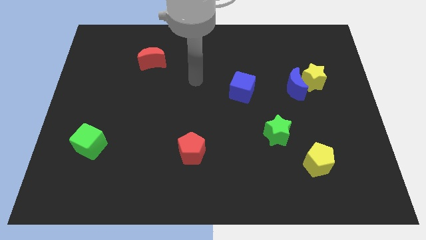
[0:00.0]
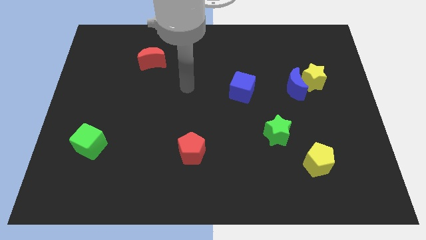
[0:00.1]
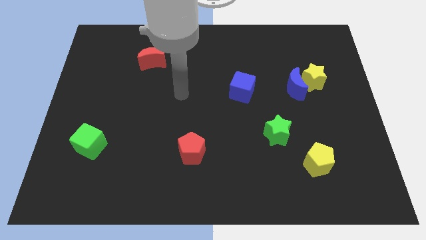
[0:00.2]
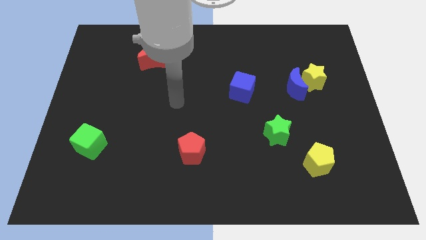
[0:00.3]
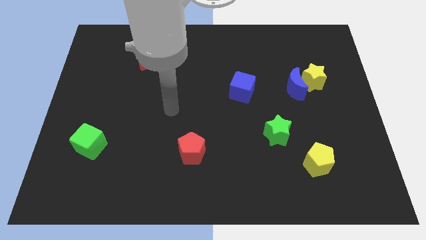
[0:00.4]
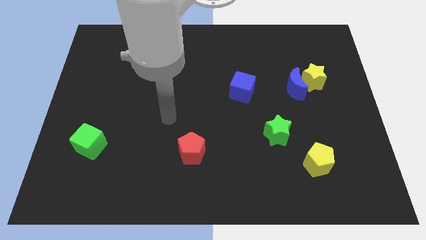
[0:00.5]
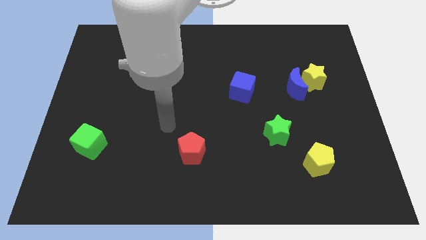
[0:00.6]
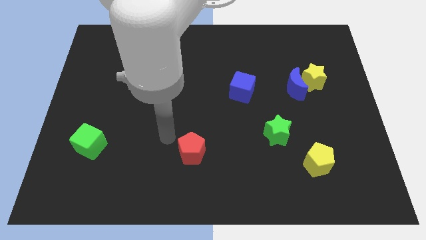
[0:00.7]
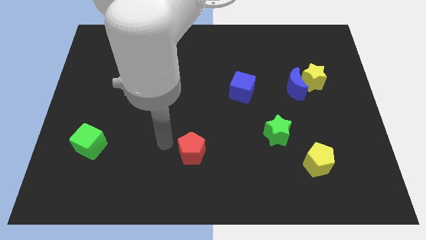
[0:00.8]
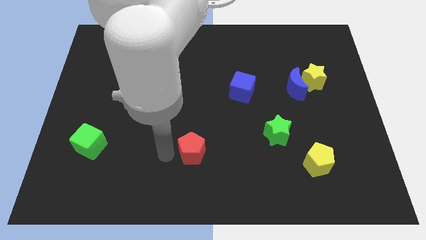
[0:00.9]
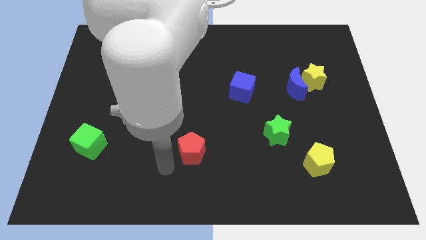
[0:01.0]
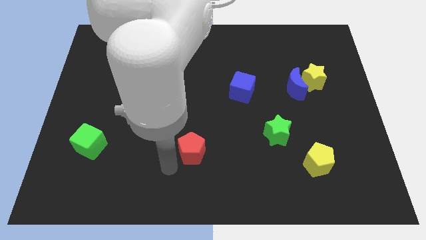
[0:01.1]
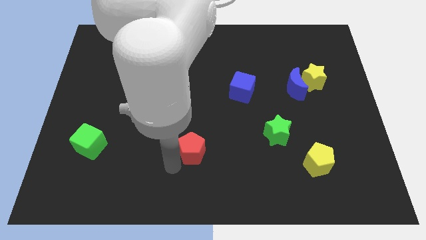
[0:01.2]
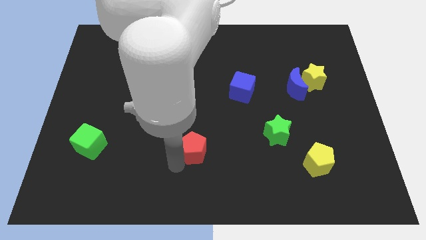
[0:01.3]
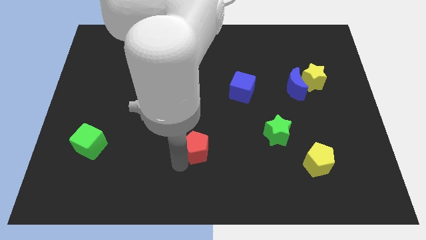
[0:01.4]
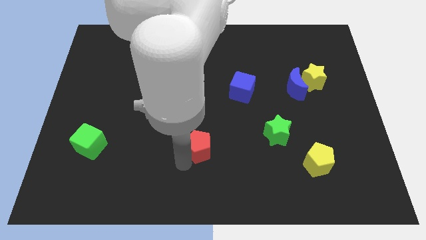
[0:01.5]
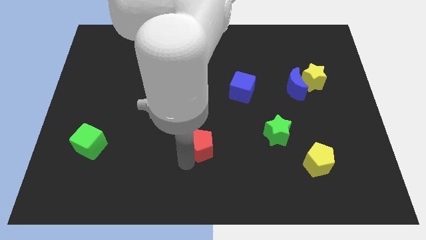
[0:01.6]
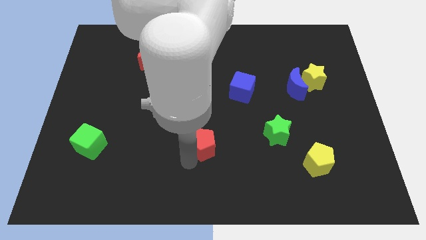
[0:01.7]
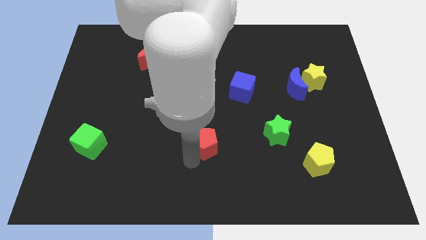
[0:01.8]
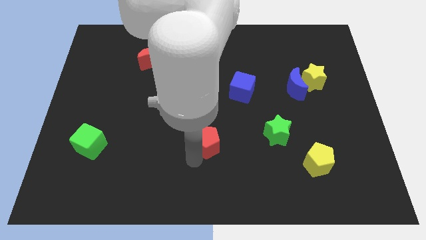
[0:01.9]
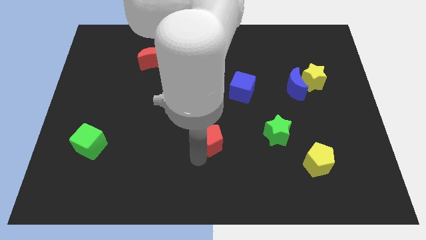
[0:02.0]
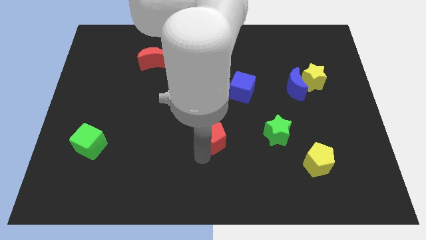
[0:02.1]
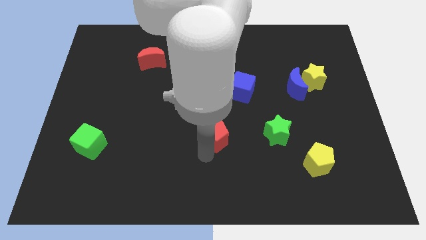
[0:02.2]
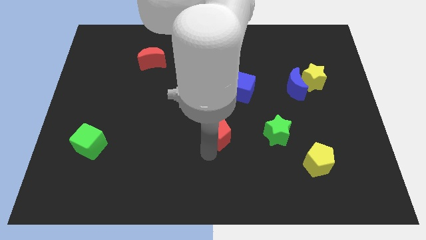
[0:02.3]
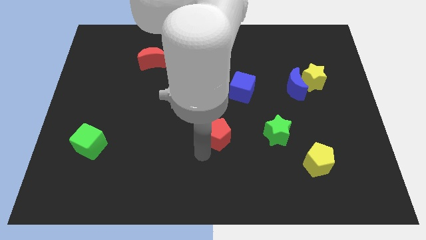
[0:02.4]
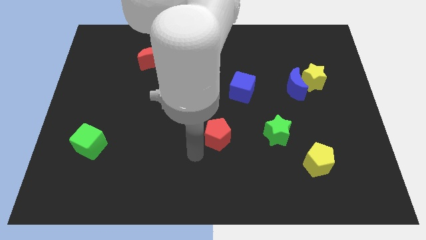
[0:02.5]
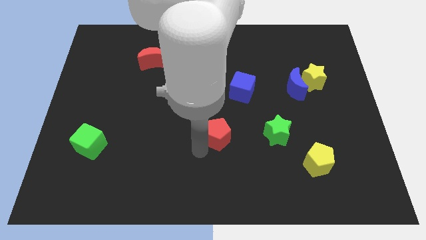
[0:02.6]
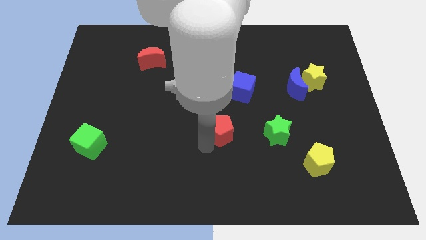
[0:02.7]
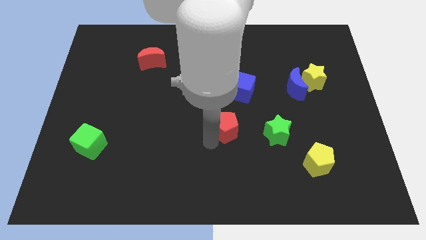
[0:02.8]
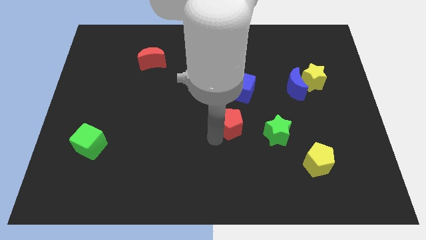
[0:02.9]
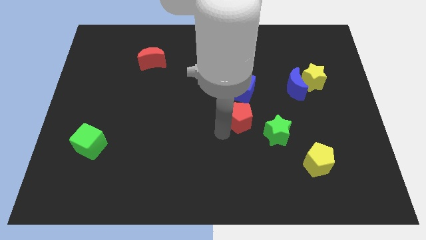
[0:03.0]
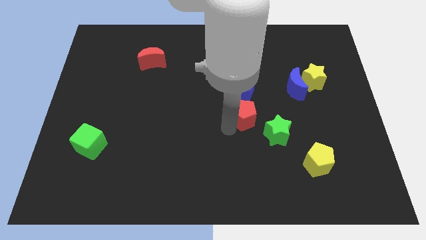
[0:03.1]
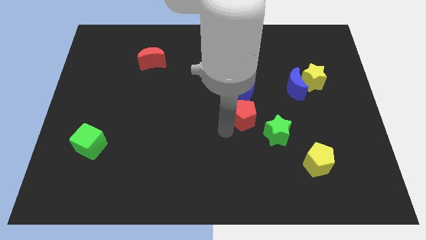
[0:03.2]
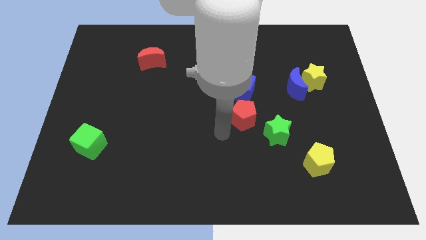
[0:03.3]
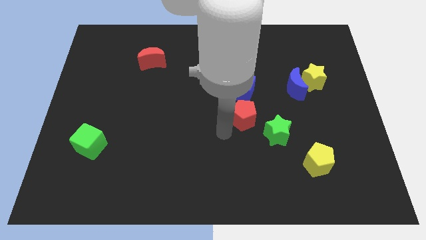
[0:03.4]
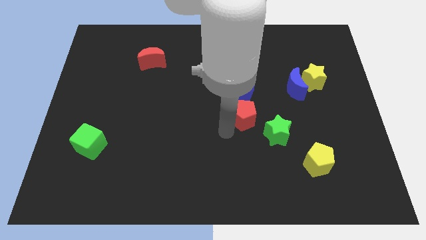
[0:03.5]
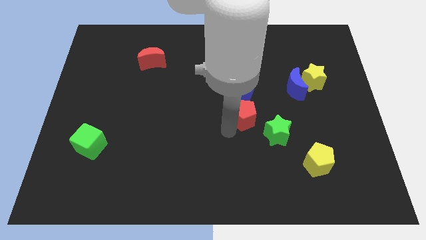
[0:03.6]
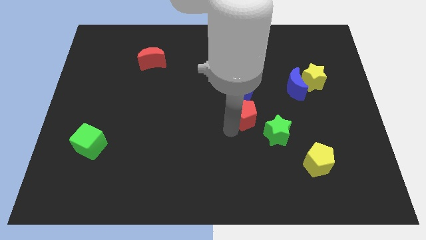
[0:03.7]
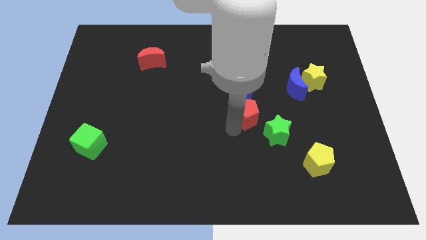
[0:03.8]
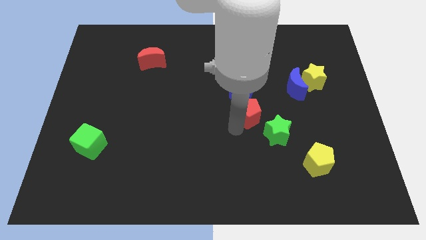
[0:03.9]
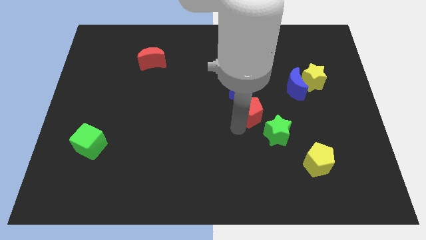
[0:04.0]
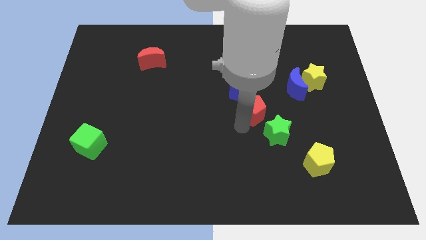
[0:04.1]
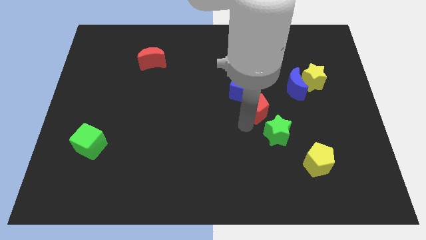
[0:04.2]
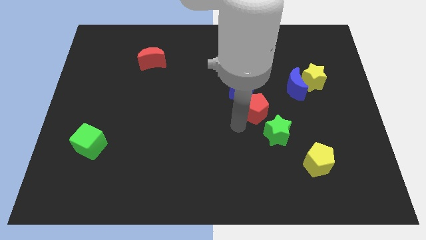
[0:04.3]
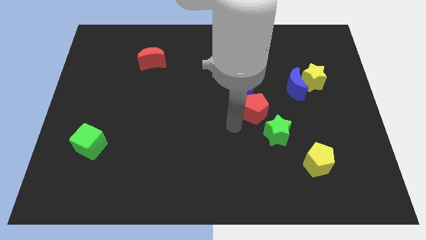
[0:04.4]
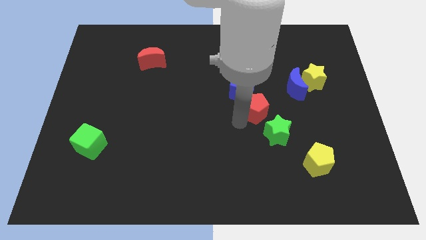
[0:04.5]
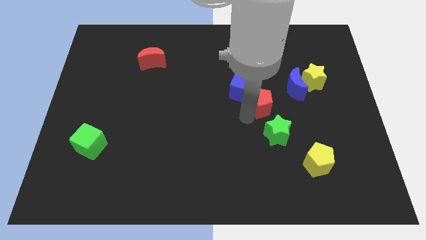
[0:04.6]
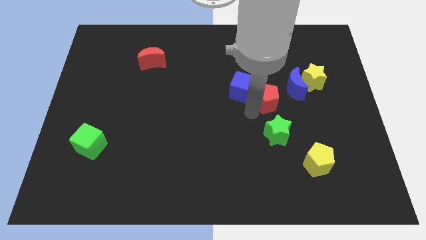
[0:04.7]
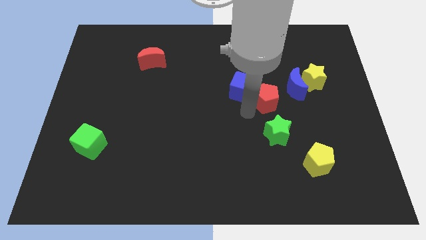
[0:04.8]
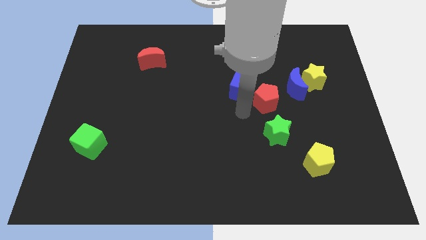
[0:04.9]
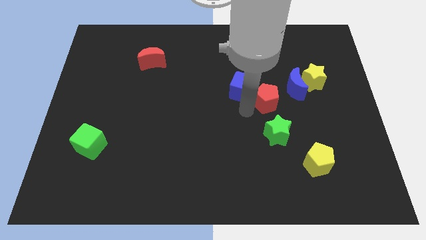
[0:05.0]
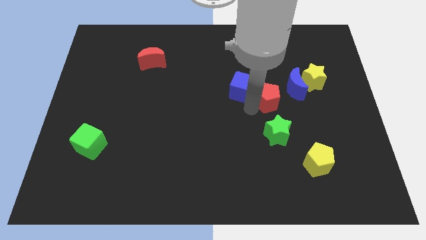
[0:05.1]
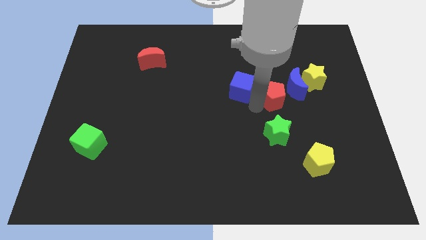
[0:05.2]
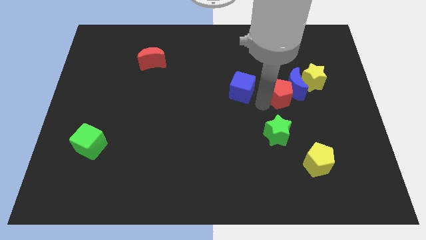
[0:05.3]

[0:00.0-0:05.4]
slide the red pentagon next to the blue moon

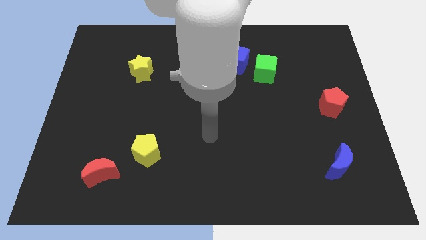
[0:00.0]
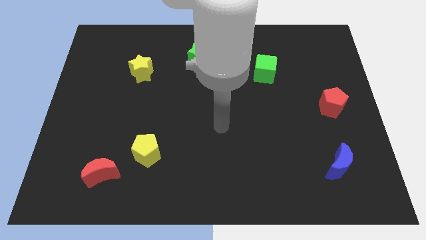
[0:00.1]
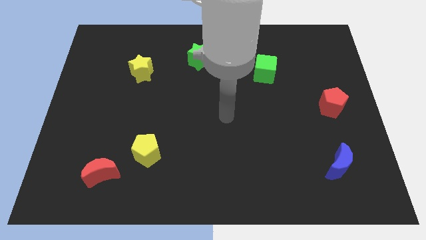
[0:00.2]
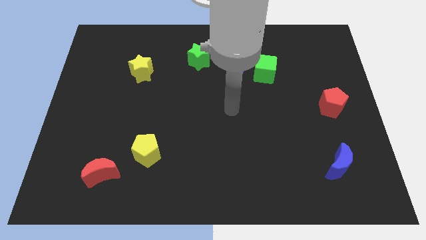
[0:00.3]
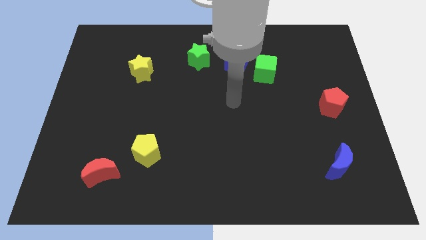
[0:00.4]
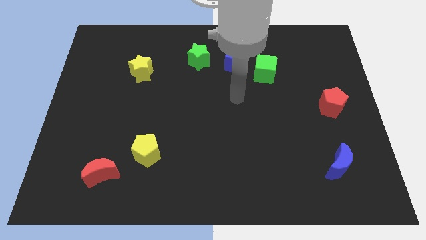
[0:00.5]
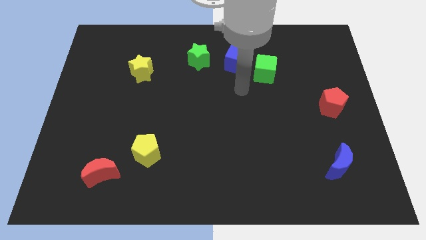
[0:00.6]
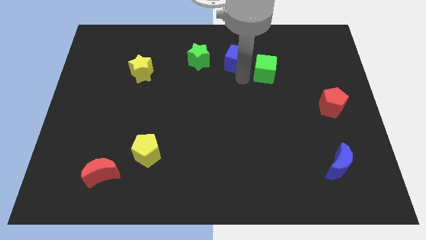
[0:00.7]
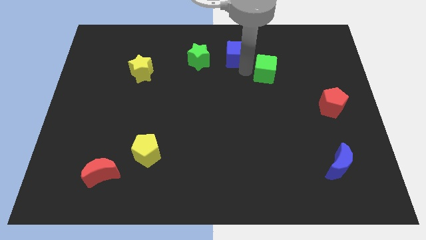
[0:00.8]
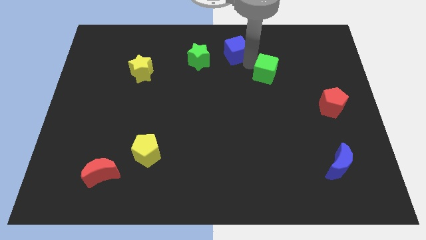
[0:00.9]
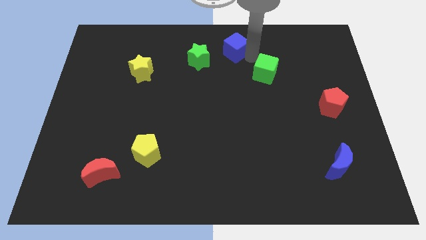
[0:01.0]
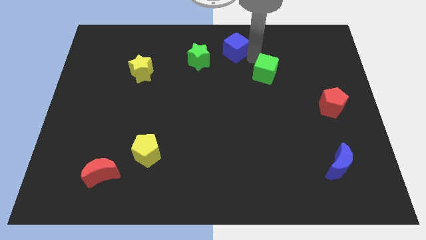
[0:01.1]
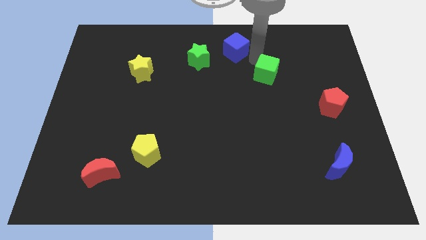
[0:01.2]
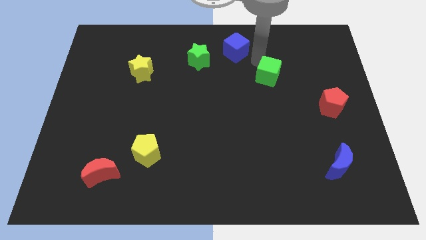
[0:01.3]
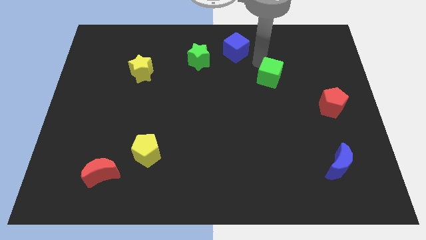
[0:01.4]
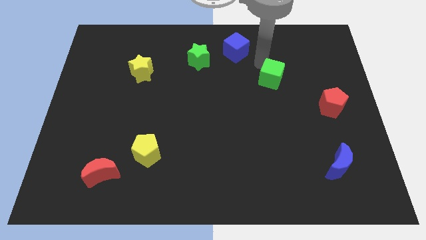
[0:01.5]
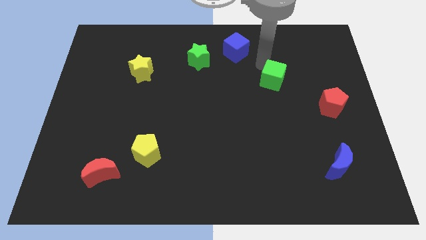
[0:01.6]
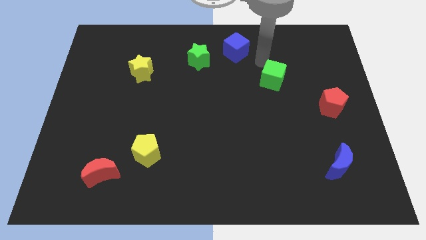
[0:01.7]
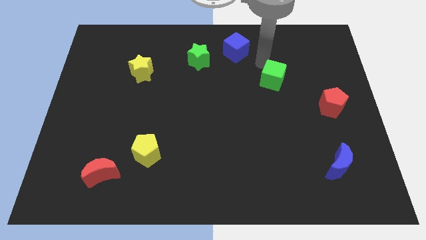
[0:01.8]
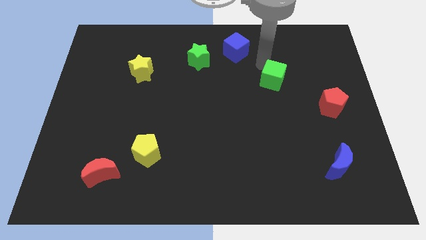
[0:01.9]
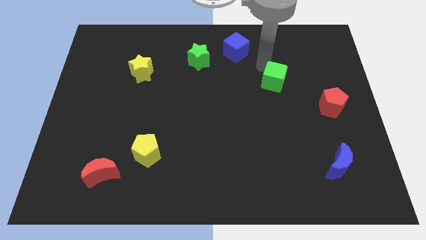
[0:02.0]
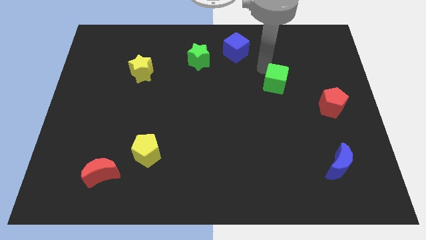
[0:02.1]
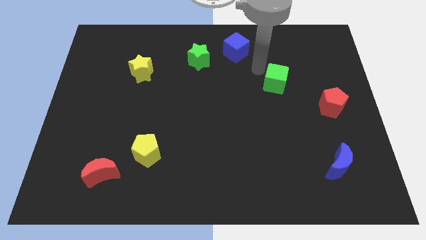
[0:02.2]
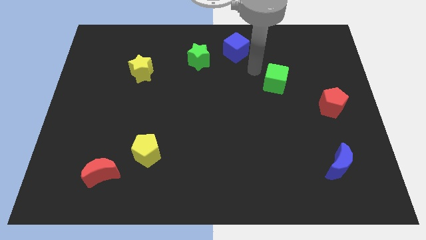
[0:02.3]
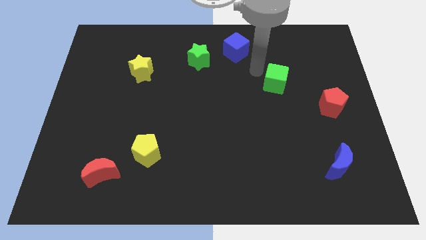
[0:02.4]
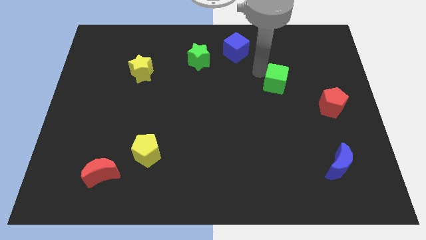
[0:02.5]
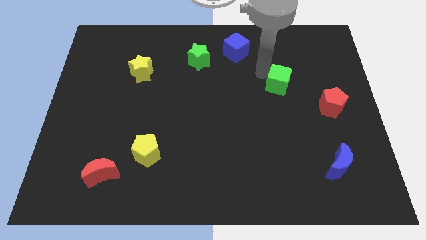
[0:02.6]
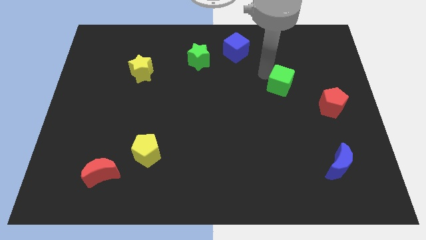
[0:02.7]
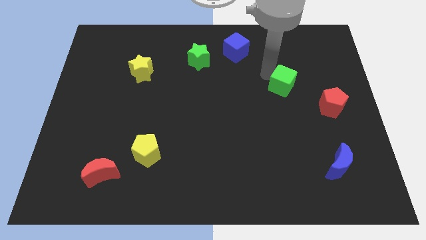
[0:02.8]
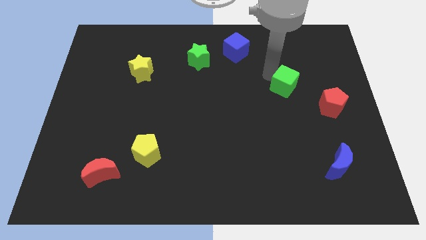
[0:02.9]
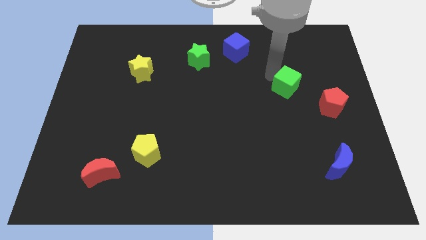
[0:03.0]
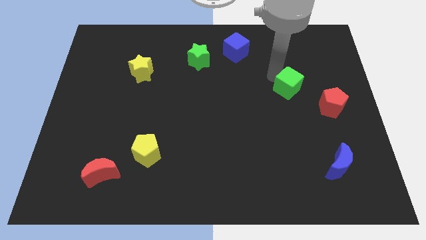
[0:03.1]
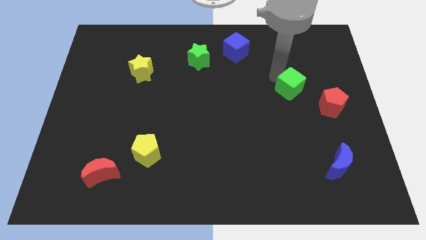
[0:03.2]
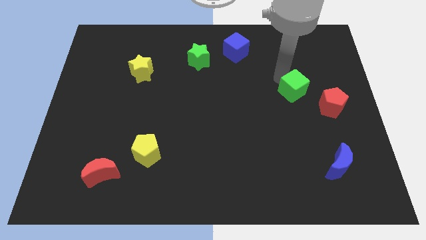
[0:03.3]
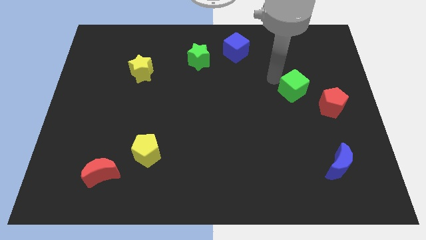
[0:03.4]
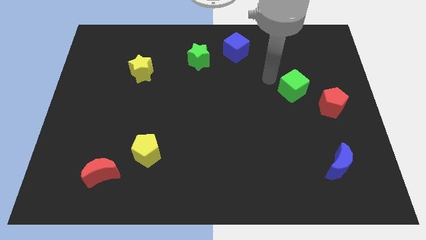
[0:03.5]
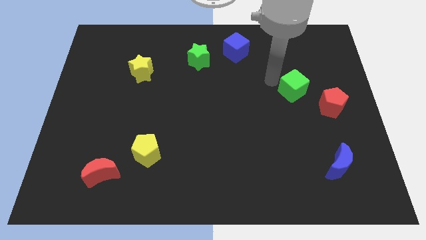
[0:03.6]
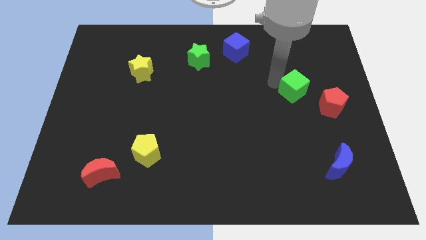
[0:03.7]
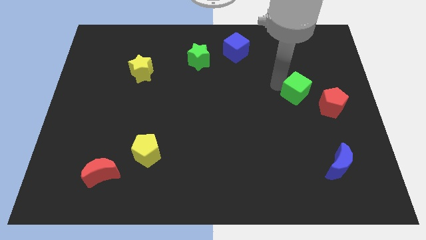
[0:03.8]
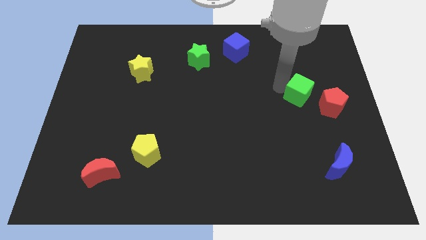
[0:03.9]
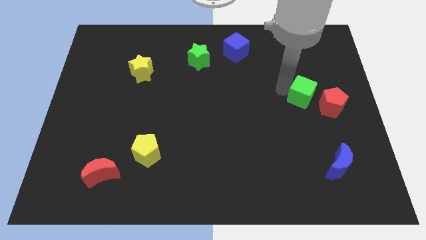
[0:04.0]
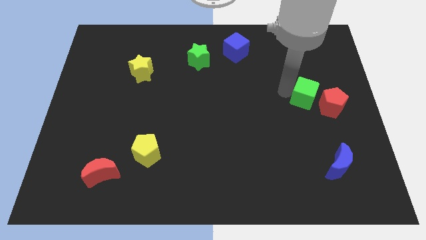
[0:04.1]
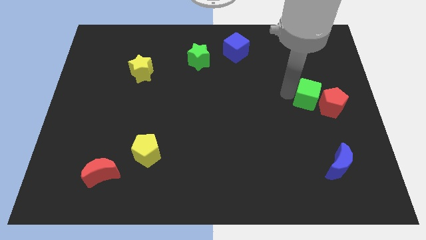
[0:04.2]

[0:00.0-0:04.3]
put the green cube next to the red pentagon
